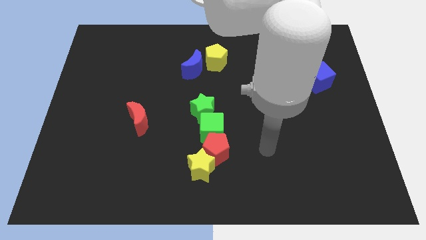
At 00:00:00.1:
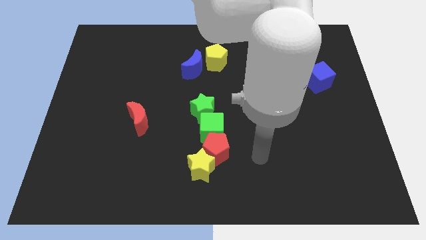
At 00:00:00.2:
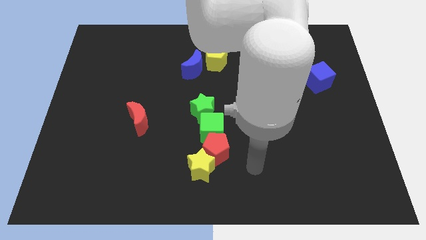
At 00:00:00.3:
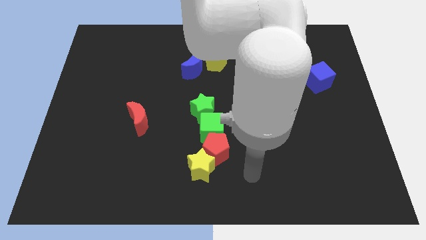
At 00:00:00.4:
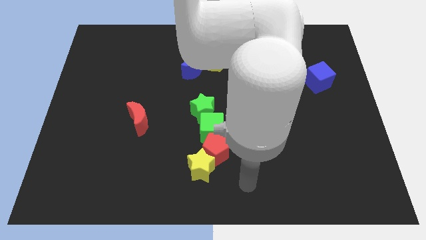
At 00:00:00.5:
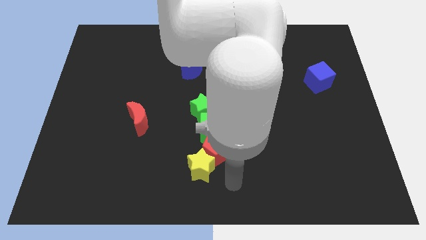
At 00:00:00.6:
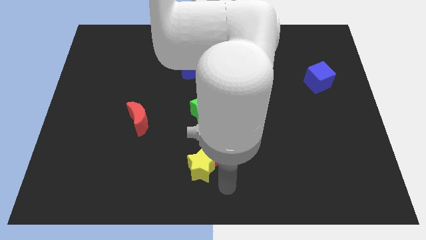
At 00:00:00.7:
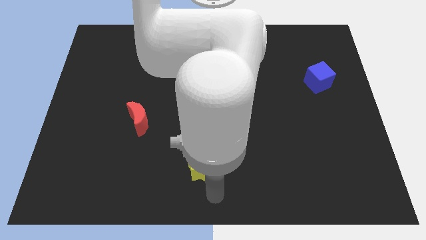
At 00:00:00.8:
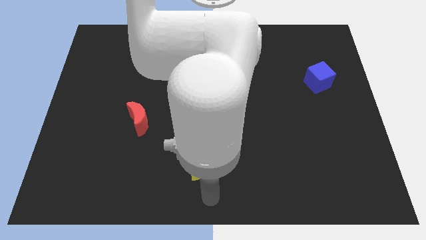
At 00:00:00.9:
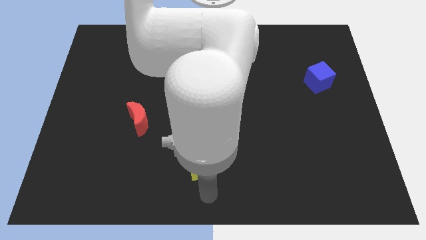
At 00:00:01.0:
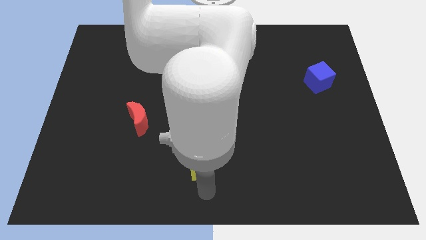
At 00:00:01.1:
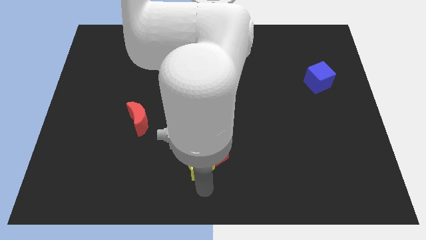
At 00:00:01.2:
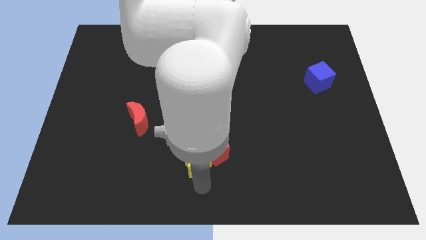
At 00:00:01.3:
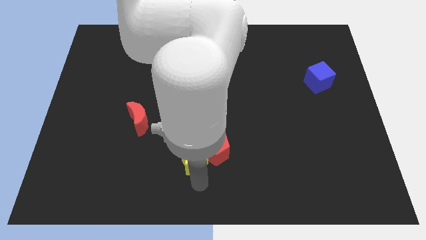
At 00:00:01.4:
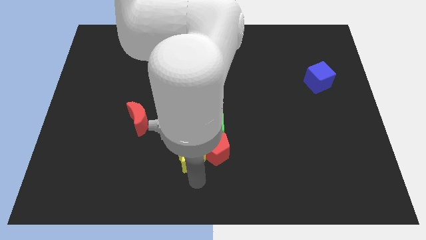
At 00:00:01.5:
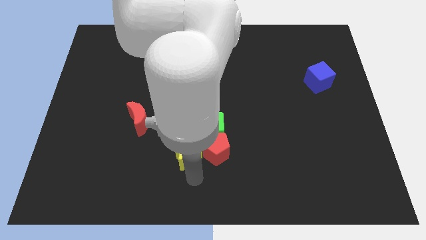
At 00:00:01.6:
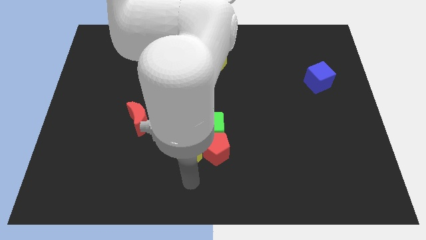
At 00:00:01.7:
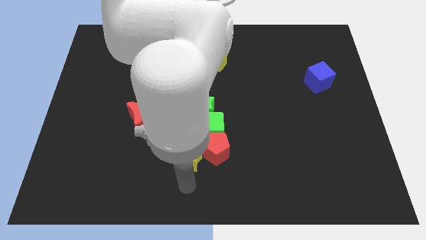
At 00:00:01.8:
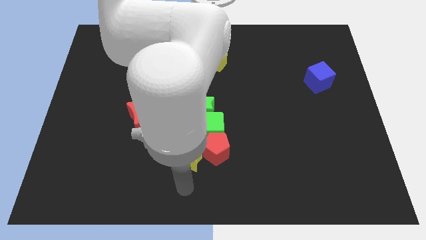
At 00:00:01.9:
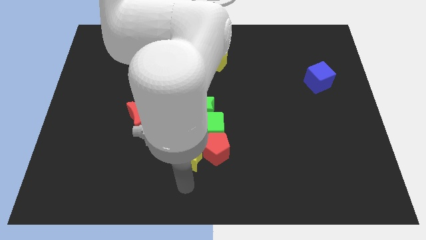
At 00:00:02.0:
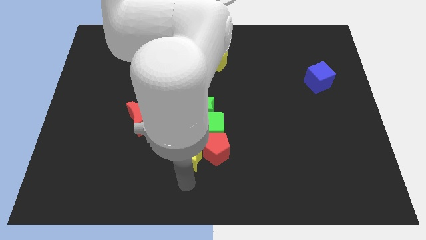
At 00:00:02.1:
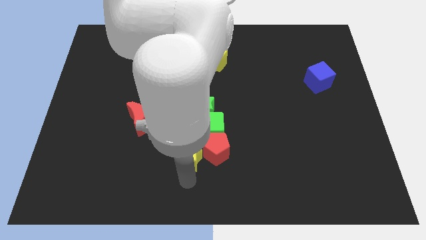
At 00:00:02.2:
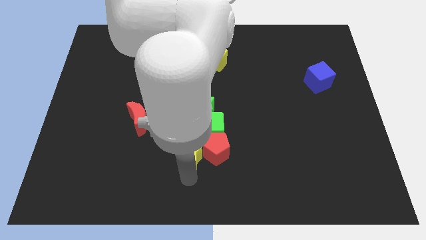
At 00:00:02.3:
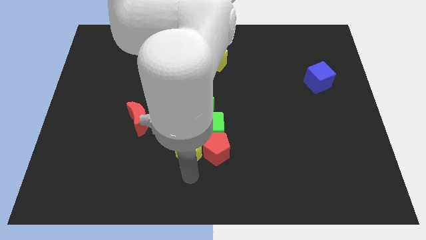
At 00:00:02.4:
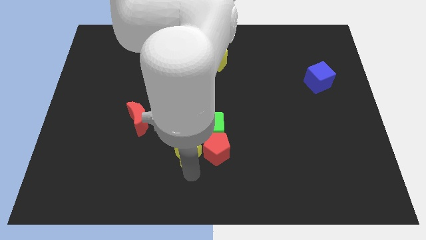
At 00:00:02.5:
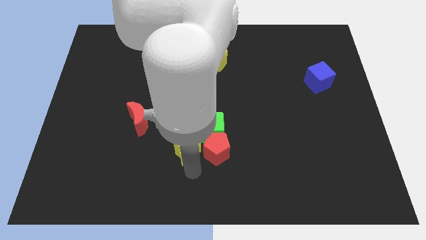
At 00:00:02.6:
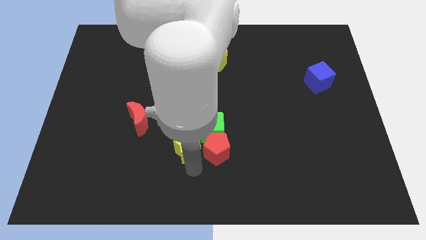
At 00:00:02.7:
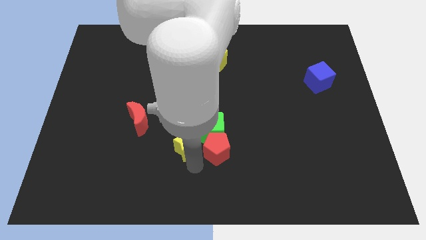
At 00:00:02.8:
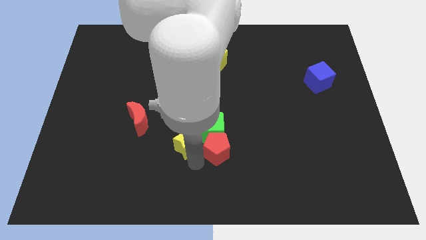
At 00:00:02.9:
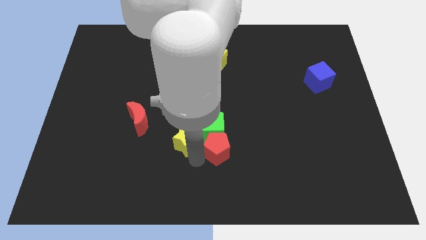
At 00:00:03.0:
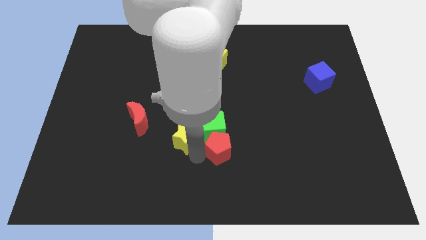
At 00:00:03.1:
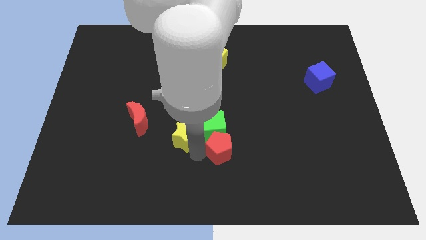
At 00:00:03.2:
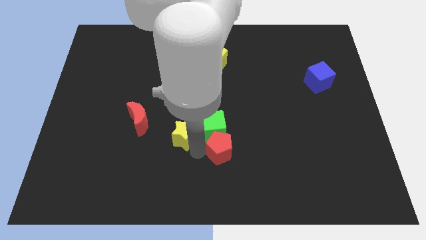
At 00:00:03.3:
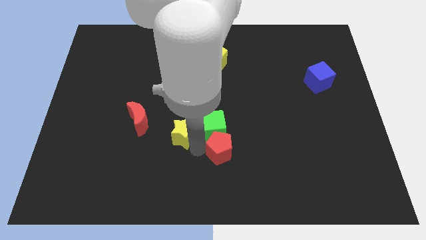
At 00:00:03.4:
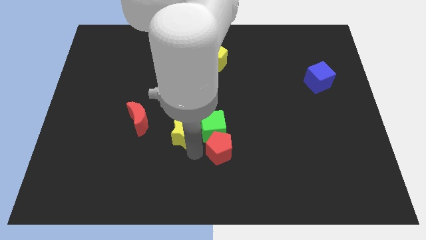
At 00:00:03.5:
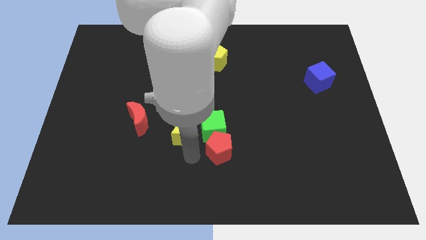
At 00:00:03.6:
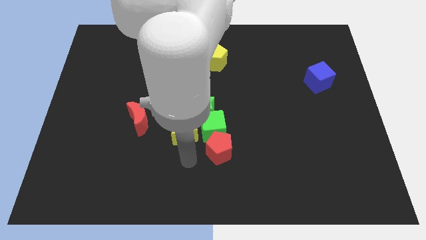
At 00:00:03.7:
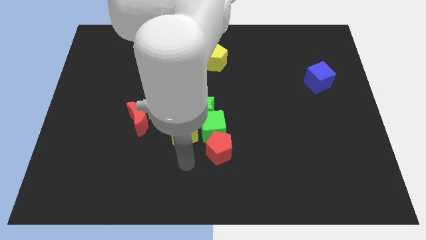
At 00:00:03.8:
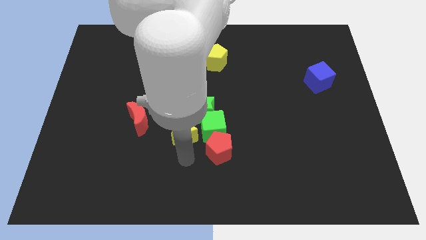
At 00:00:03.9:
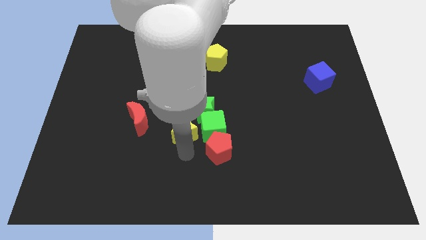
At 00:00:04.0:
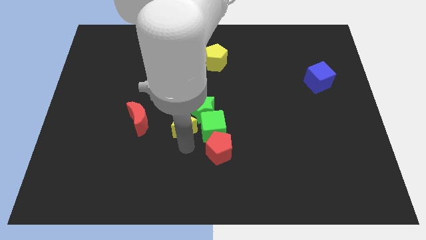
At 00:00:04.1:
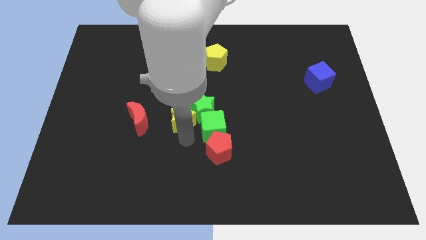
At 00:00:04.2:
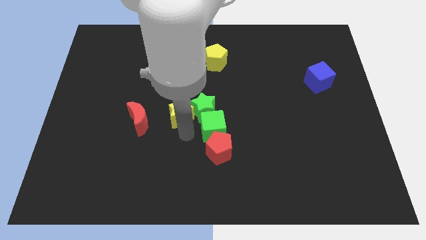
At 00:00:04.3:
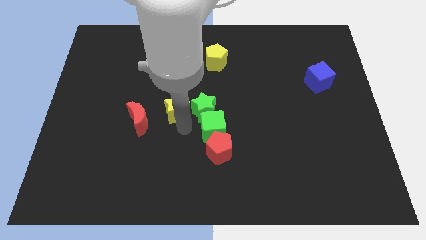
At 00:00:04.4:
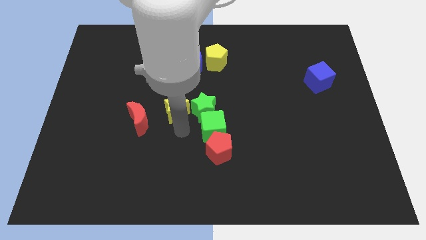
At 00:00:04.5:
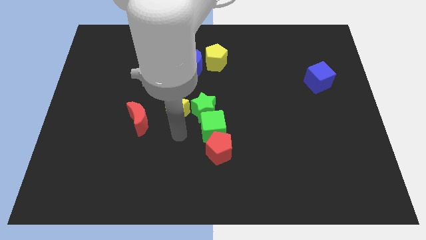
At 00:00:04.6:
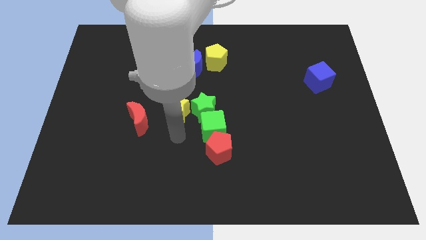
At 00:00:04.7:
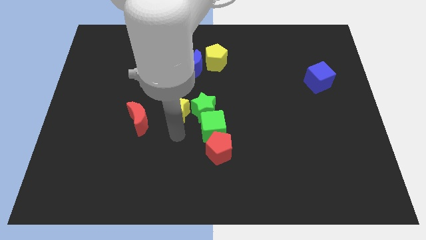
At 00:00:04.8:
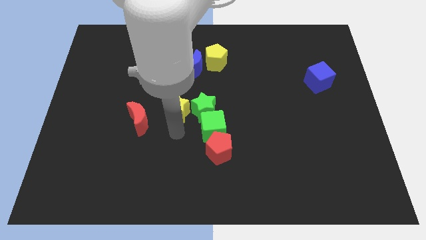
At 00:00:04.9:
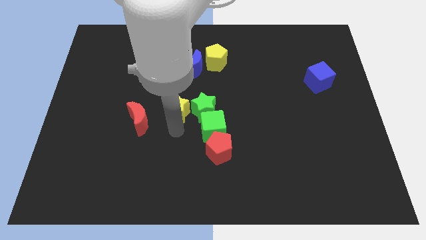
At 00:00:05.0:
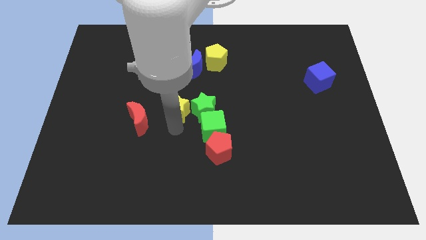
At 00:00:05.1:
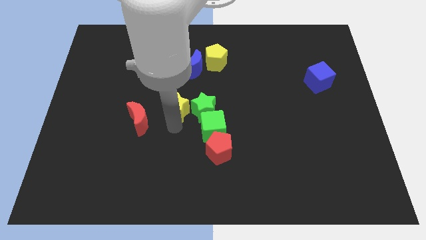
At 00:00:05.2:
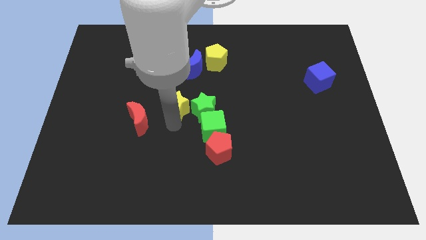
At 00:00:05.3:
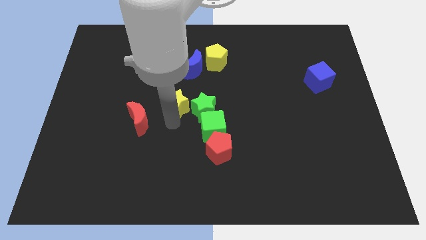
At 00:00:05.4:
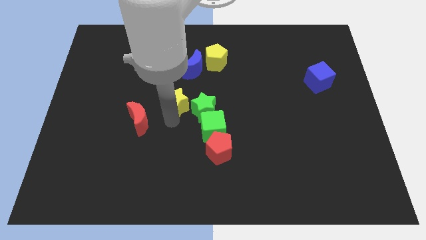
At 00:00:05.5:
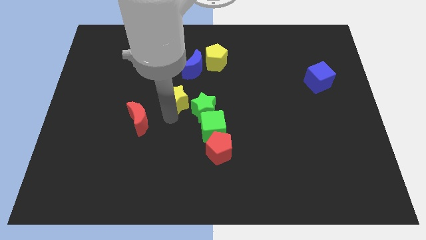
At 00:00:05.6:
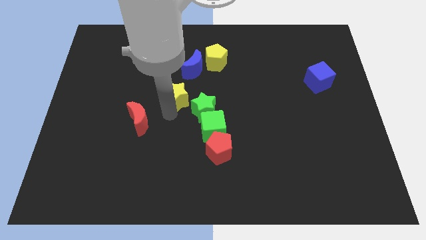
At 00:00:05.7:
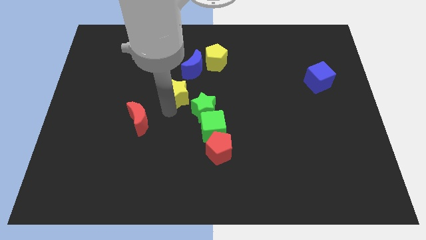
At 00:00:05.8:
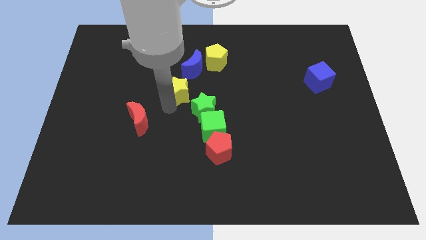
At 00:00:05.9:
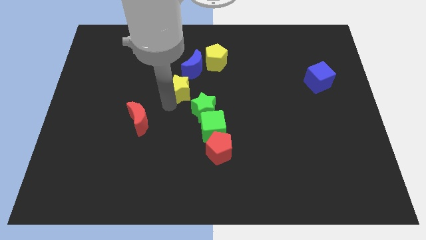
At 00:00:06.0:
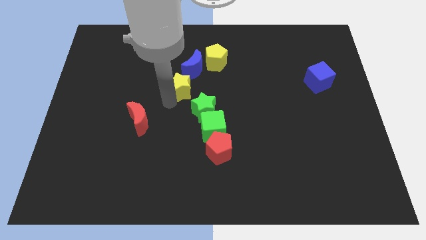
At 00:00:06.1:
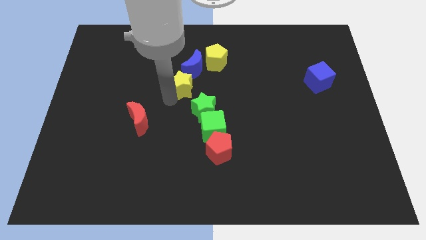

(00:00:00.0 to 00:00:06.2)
move the yellow star to the bottom left side of the yellow pentagon
